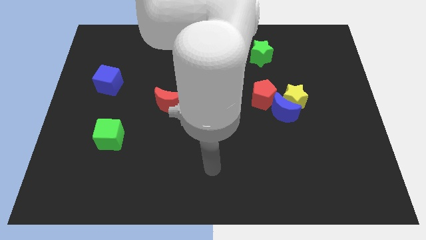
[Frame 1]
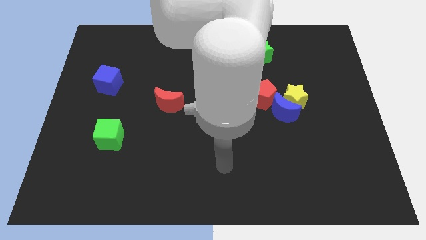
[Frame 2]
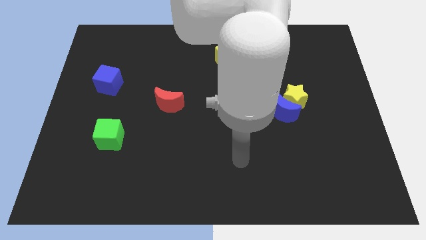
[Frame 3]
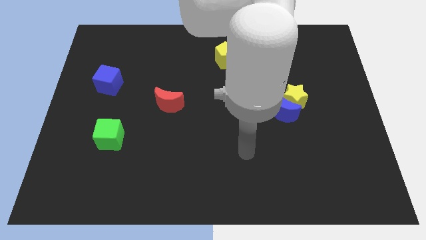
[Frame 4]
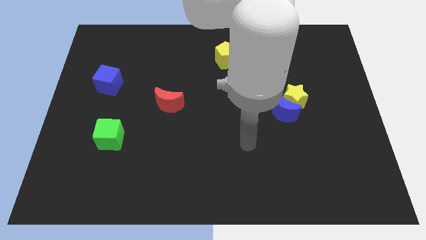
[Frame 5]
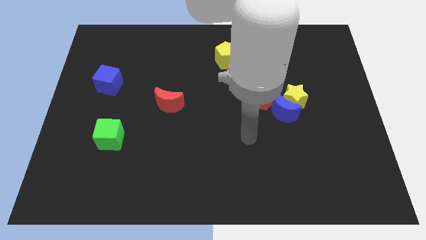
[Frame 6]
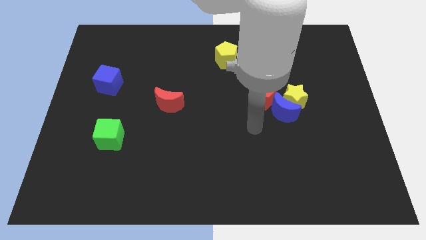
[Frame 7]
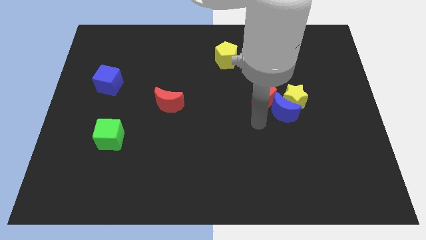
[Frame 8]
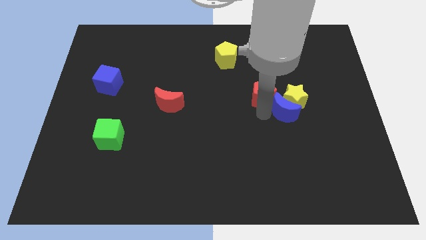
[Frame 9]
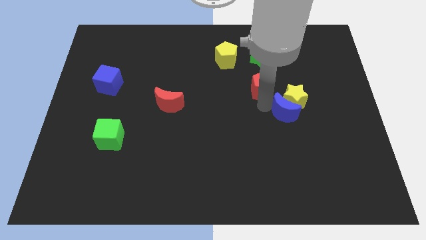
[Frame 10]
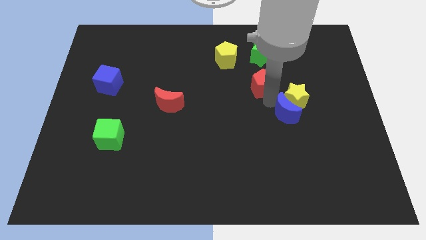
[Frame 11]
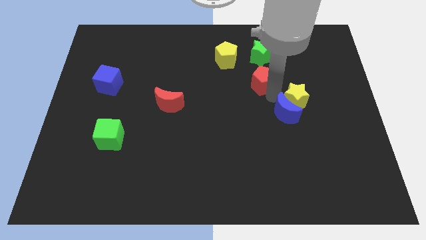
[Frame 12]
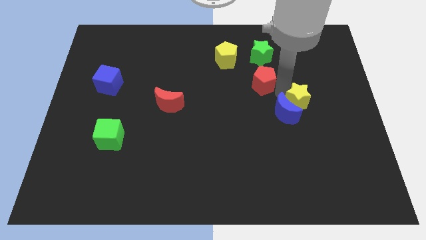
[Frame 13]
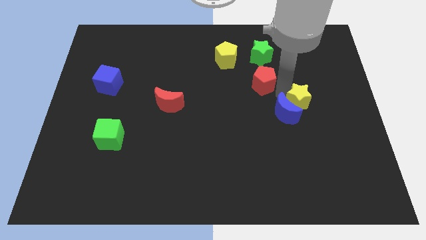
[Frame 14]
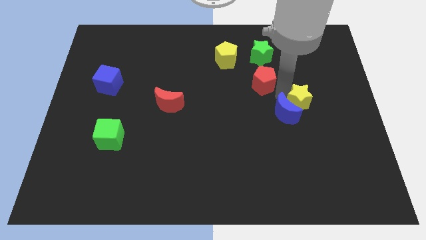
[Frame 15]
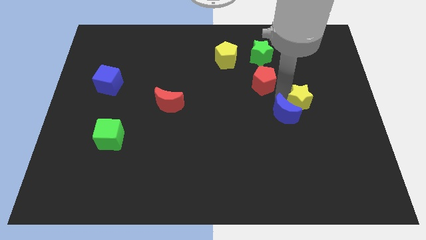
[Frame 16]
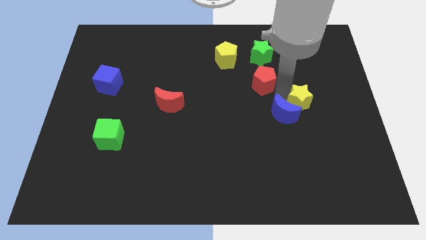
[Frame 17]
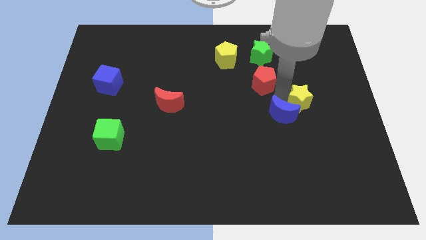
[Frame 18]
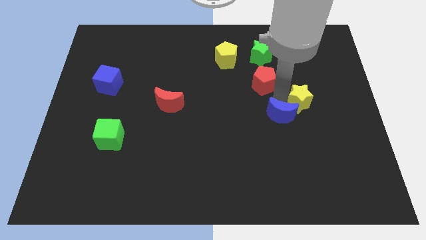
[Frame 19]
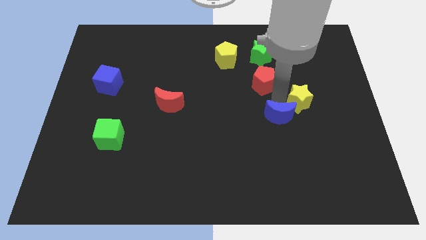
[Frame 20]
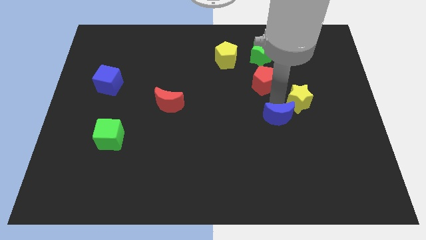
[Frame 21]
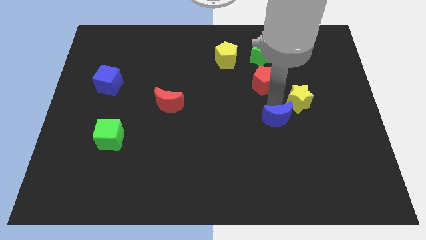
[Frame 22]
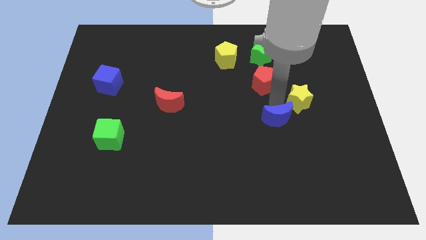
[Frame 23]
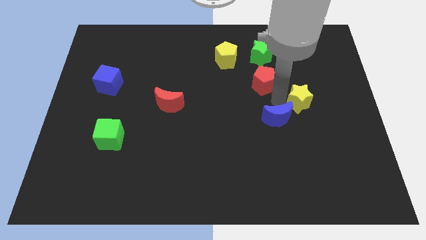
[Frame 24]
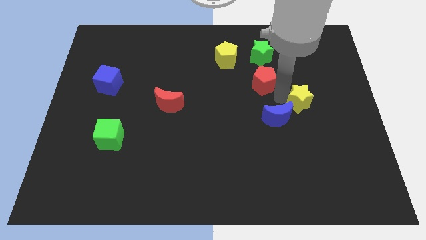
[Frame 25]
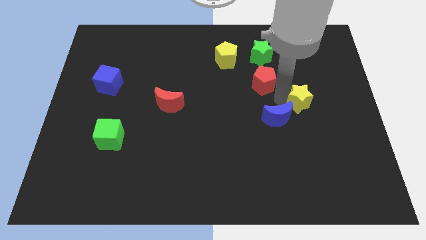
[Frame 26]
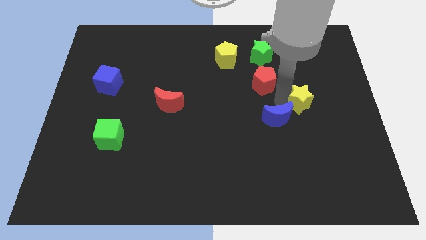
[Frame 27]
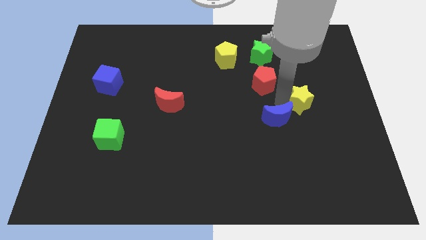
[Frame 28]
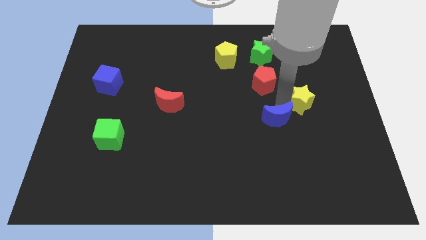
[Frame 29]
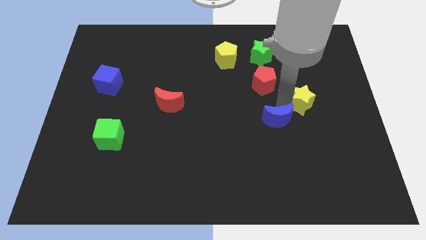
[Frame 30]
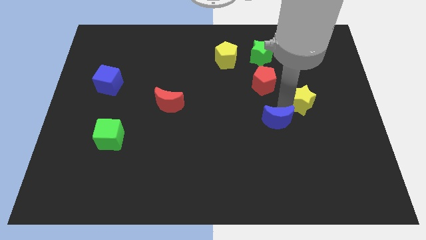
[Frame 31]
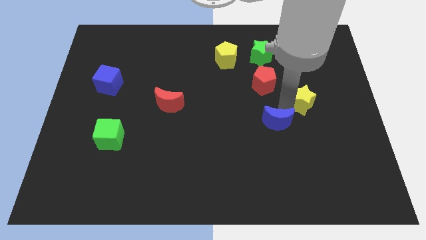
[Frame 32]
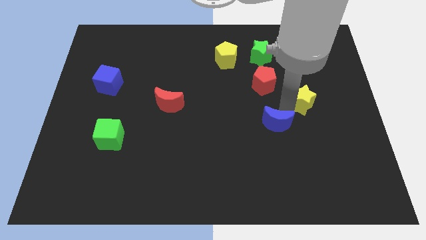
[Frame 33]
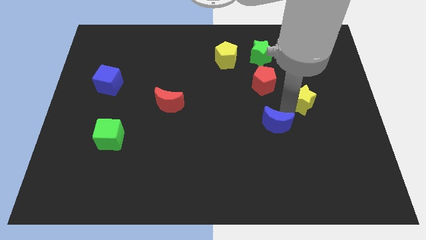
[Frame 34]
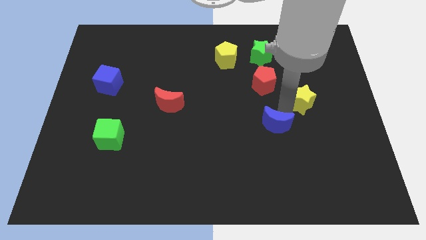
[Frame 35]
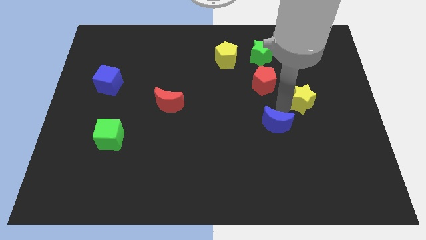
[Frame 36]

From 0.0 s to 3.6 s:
separate the blue moon from the yellow star and red pentagon

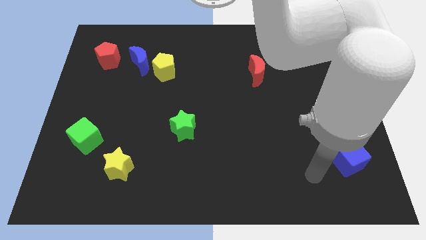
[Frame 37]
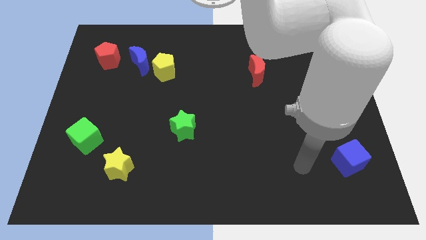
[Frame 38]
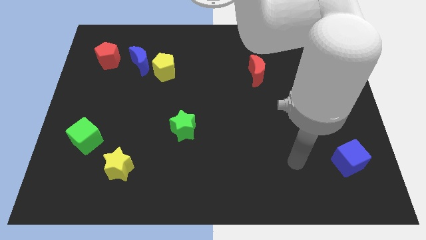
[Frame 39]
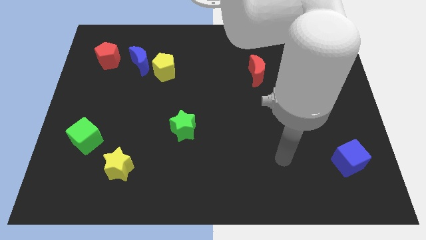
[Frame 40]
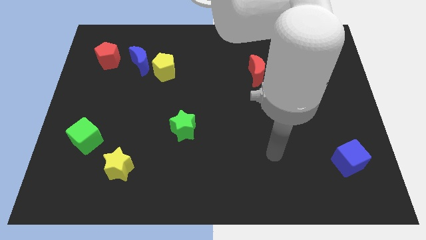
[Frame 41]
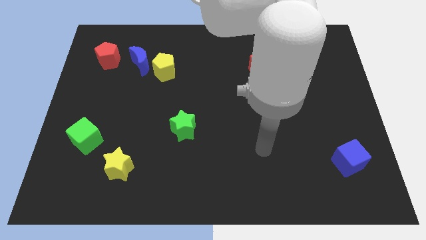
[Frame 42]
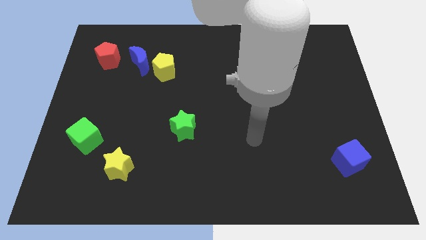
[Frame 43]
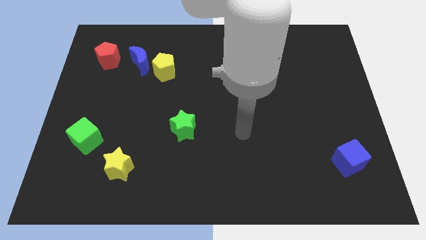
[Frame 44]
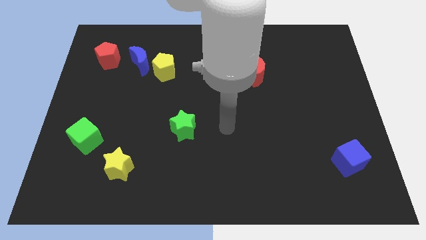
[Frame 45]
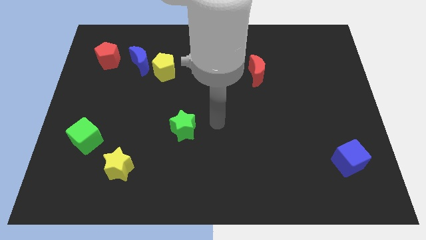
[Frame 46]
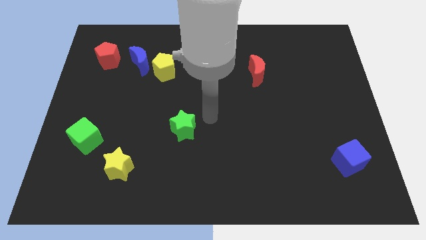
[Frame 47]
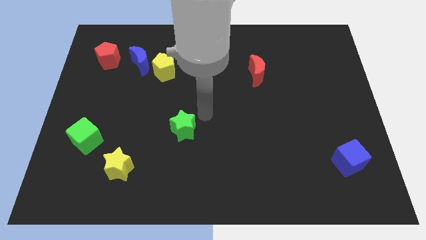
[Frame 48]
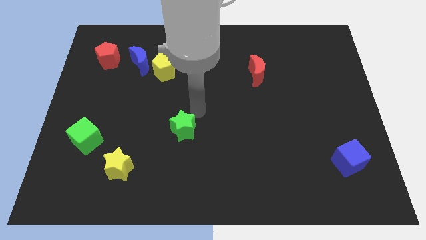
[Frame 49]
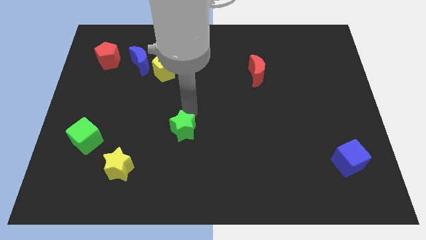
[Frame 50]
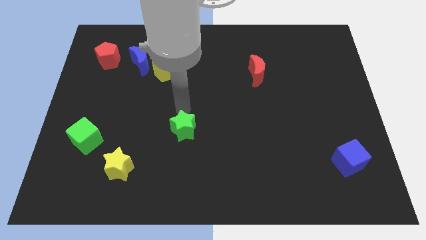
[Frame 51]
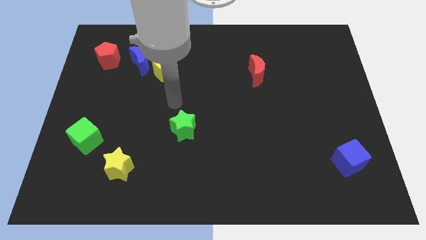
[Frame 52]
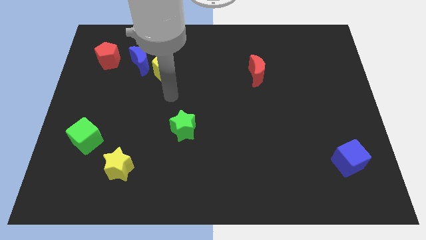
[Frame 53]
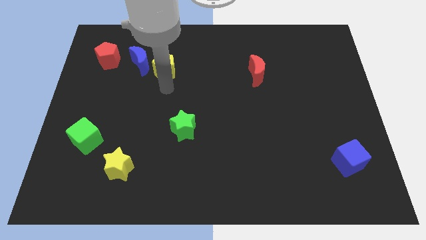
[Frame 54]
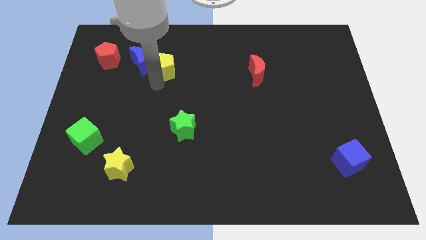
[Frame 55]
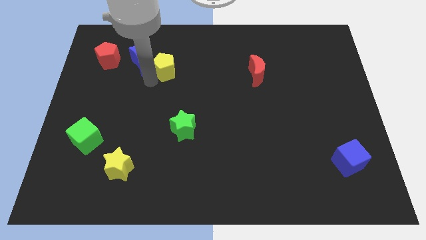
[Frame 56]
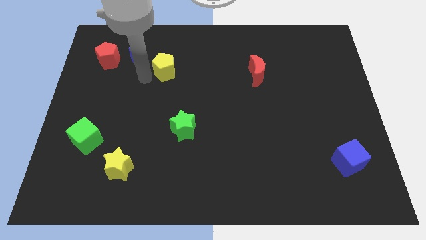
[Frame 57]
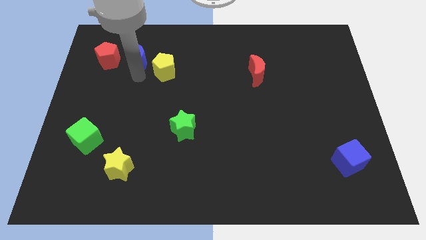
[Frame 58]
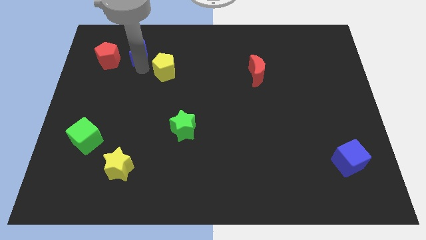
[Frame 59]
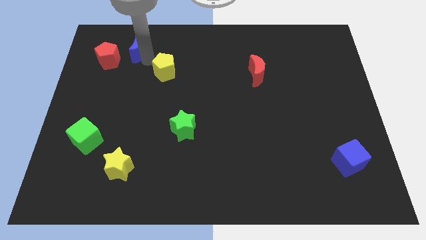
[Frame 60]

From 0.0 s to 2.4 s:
separate the yellow pentagon from the blue moon

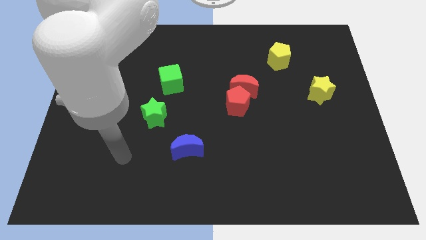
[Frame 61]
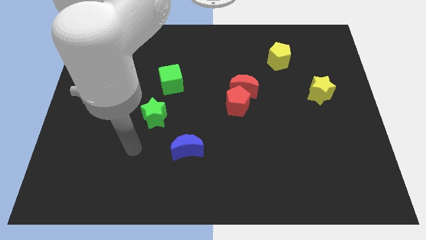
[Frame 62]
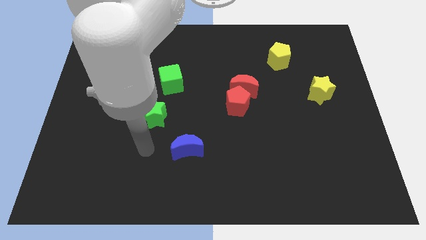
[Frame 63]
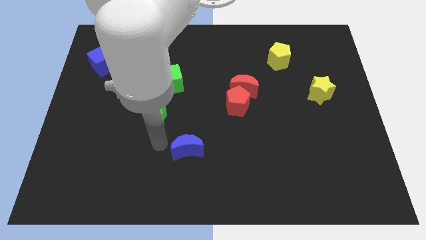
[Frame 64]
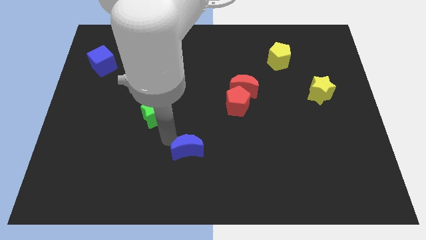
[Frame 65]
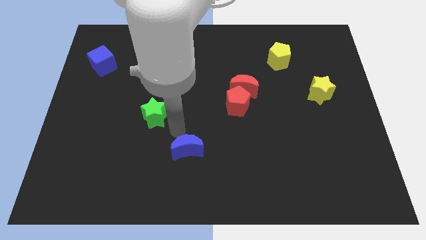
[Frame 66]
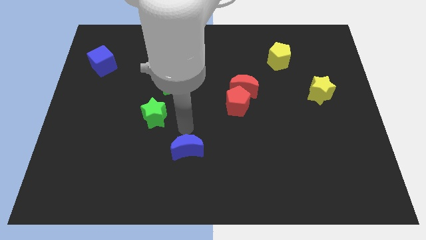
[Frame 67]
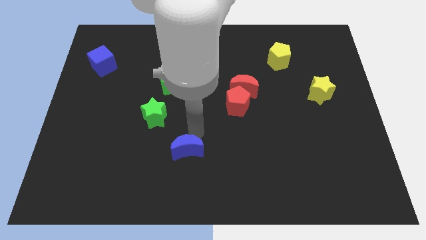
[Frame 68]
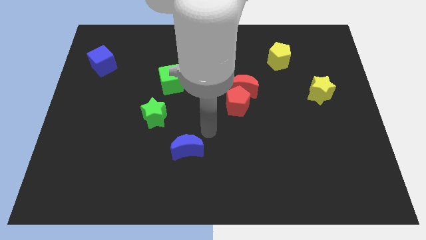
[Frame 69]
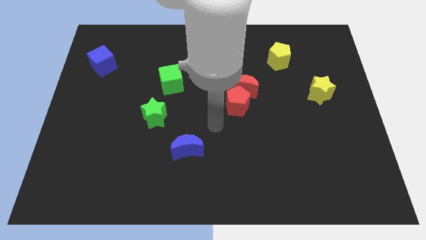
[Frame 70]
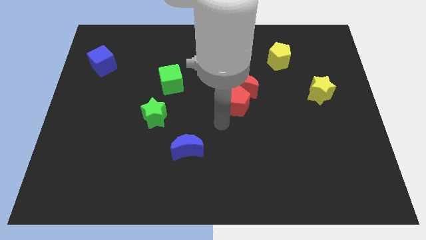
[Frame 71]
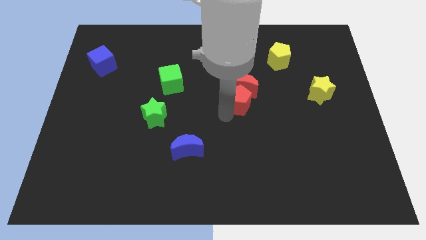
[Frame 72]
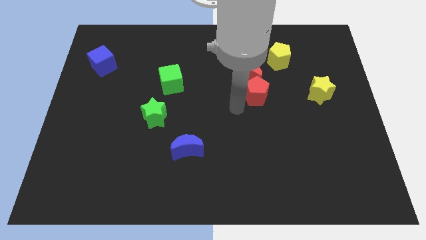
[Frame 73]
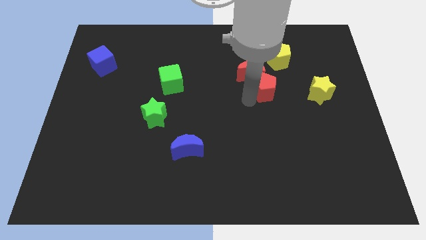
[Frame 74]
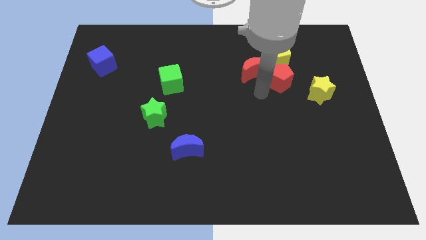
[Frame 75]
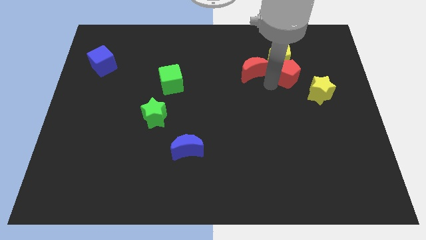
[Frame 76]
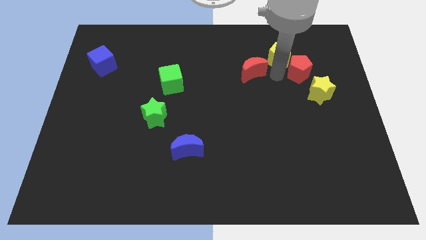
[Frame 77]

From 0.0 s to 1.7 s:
pull the red moon apart from the red pentagon

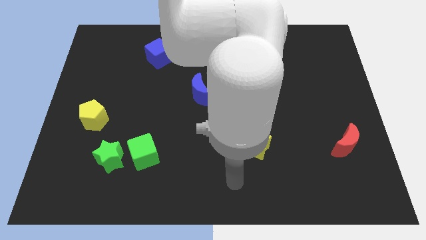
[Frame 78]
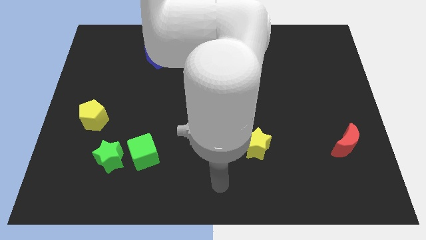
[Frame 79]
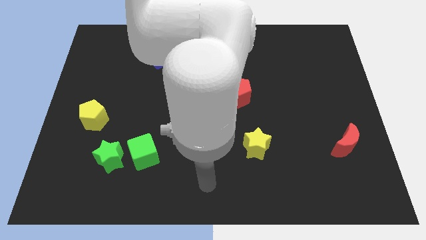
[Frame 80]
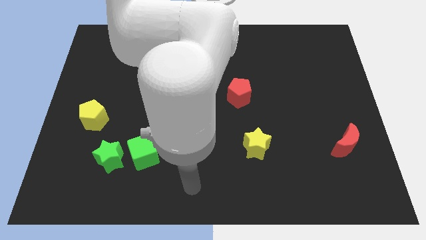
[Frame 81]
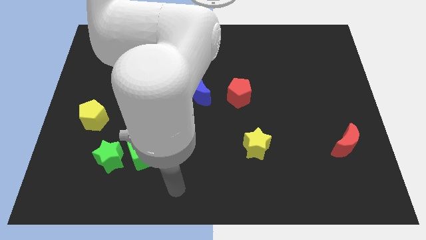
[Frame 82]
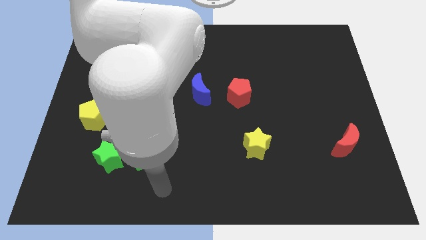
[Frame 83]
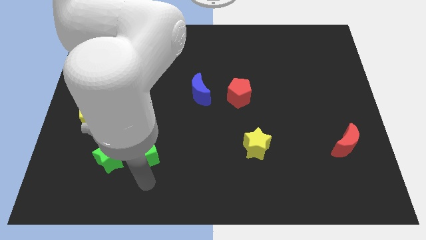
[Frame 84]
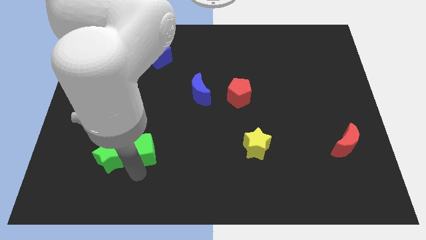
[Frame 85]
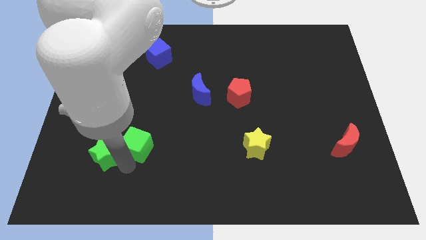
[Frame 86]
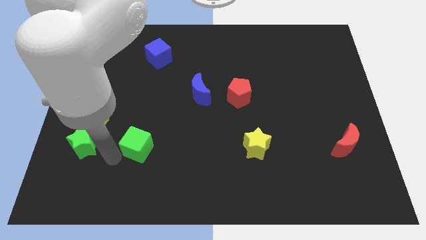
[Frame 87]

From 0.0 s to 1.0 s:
move the green cube away from the green star

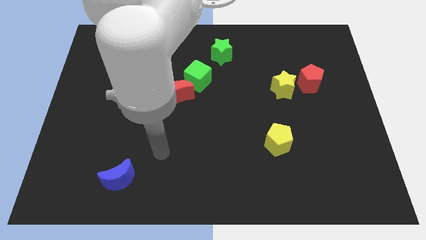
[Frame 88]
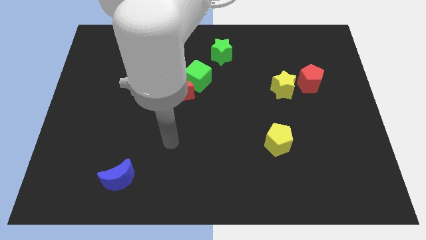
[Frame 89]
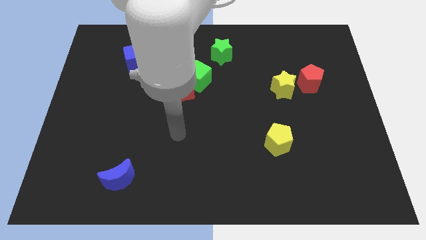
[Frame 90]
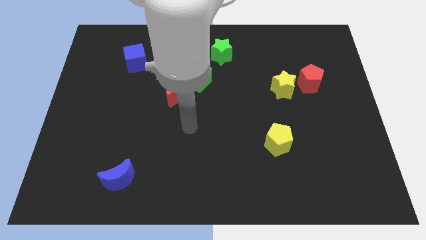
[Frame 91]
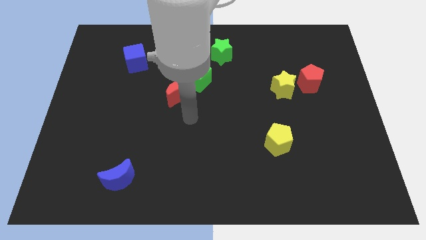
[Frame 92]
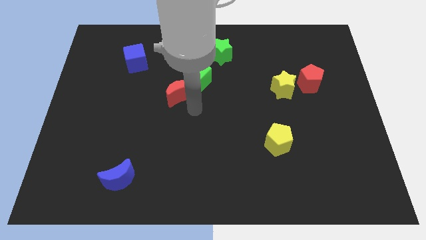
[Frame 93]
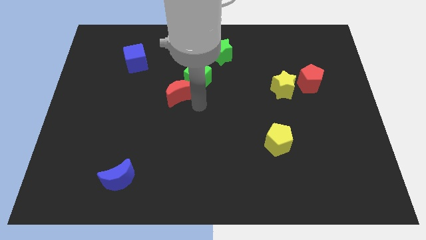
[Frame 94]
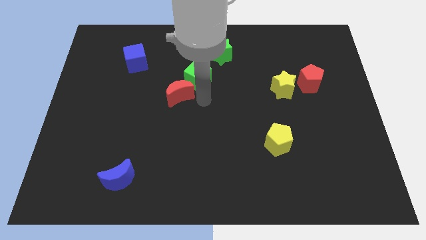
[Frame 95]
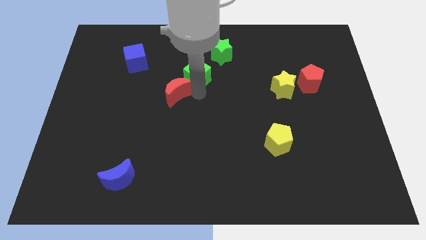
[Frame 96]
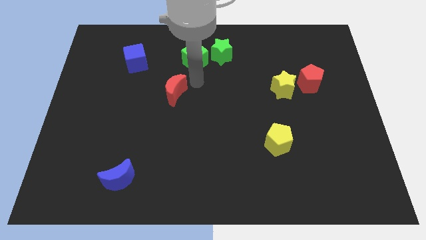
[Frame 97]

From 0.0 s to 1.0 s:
pull the red moon apart from the green cube
